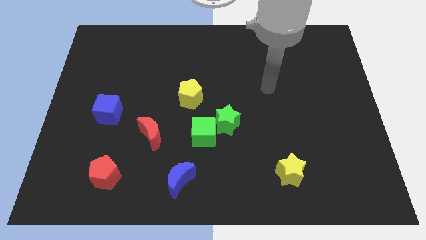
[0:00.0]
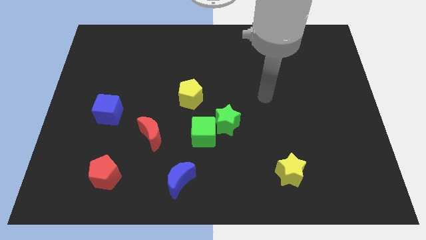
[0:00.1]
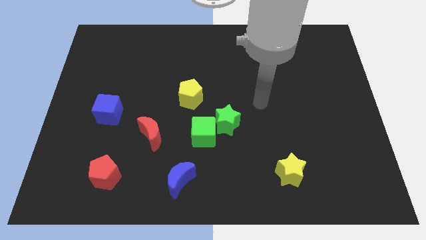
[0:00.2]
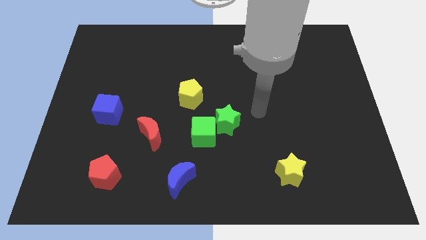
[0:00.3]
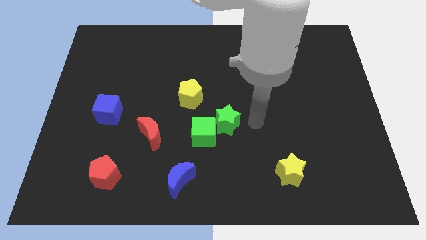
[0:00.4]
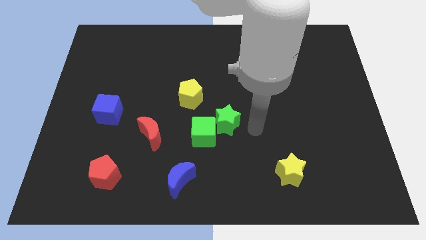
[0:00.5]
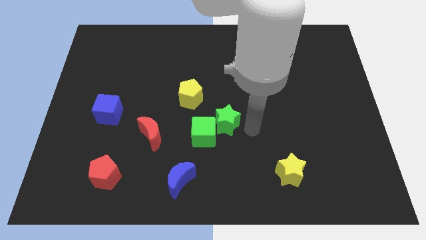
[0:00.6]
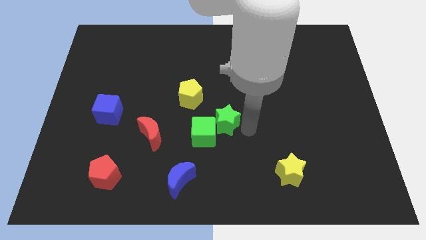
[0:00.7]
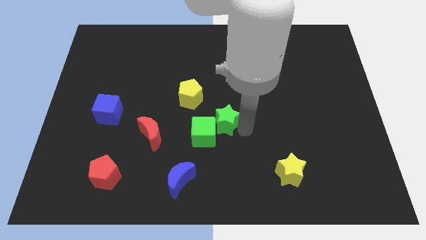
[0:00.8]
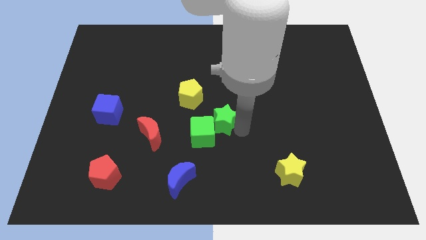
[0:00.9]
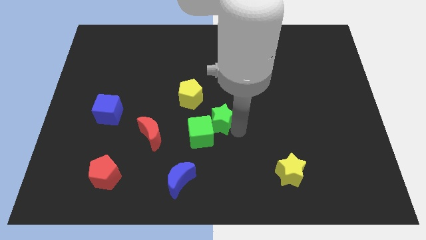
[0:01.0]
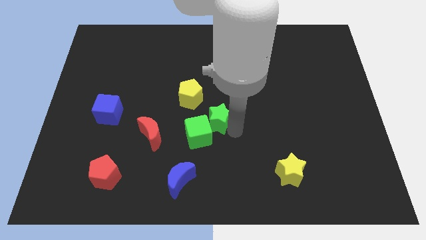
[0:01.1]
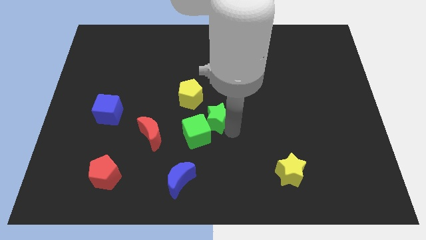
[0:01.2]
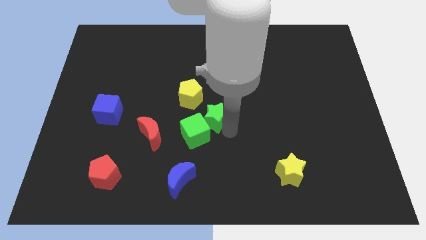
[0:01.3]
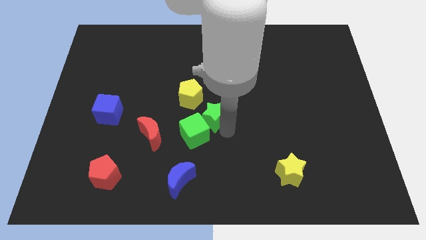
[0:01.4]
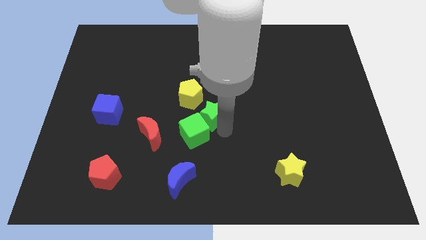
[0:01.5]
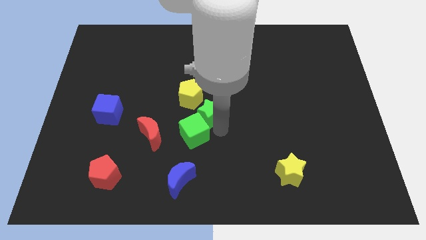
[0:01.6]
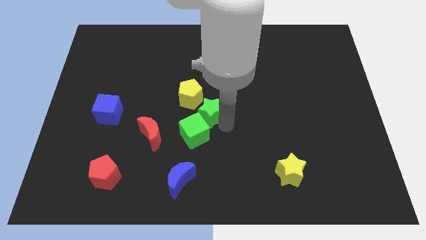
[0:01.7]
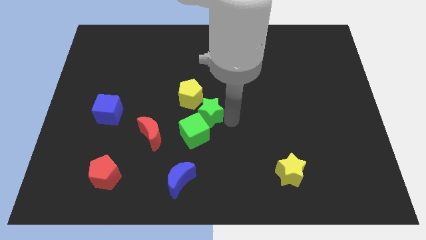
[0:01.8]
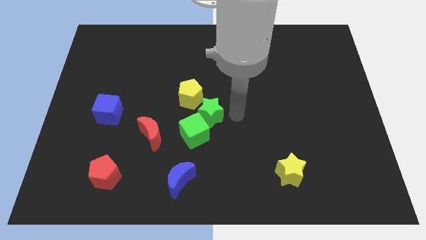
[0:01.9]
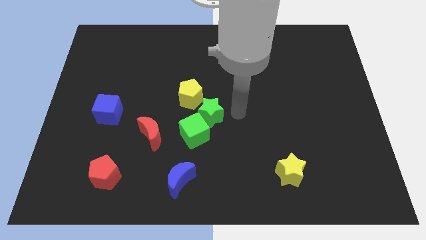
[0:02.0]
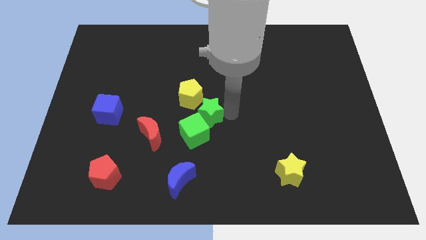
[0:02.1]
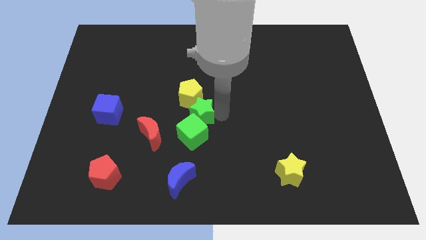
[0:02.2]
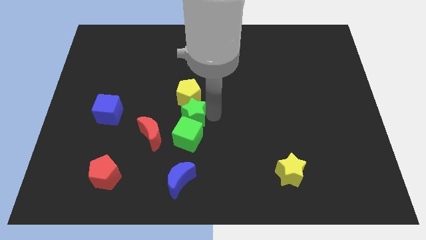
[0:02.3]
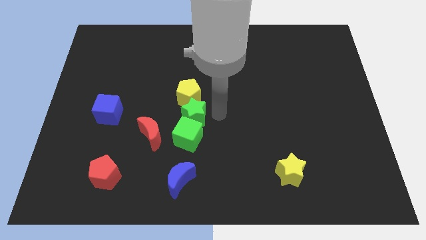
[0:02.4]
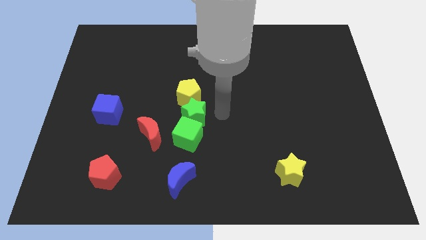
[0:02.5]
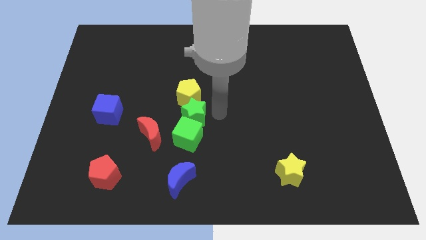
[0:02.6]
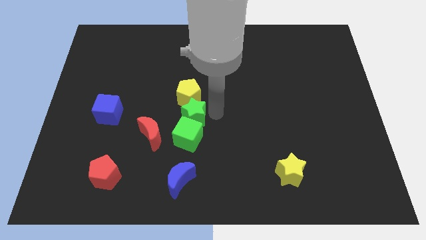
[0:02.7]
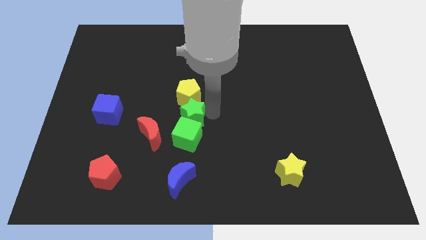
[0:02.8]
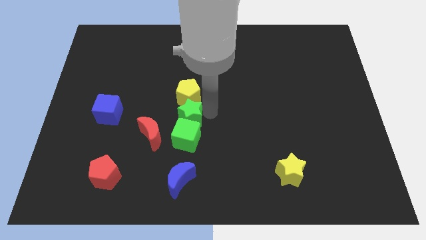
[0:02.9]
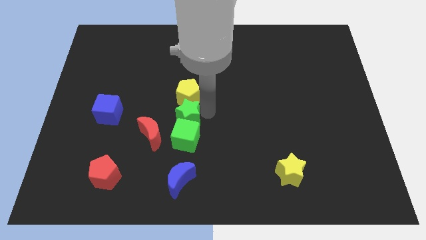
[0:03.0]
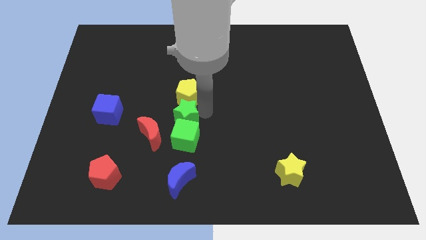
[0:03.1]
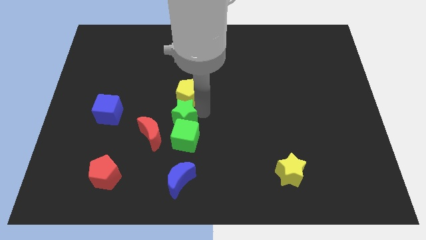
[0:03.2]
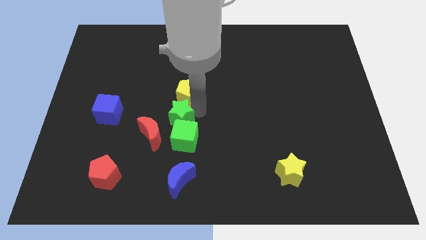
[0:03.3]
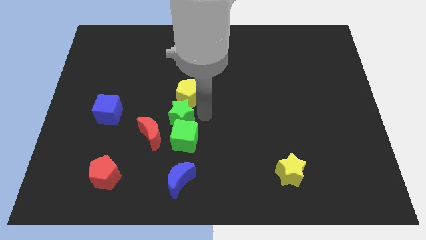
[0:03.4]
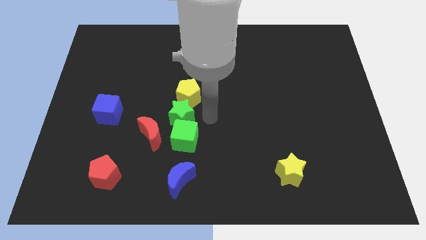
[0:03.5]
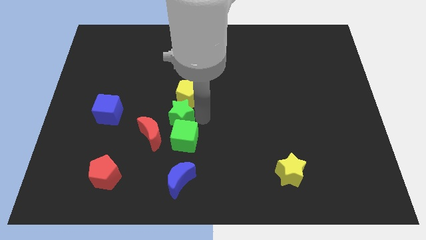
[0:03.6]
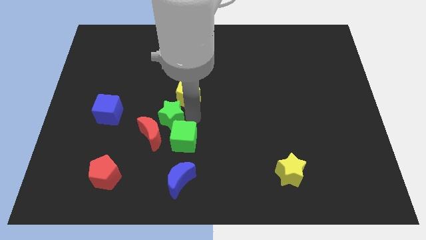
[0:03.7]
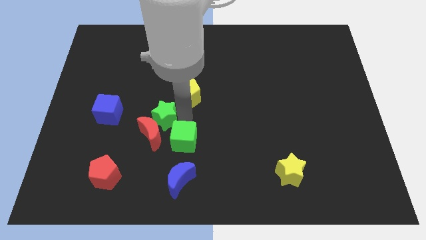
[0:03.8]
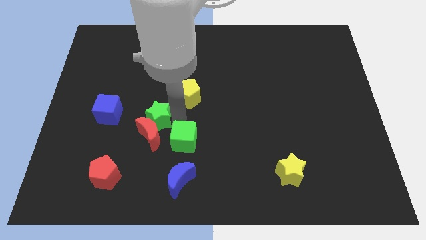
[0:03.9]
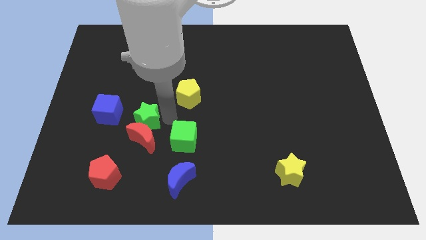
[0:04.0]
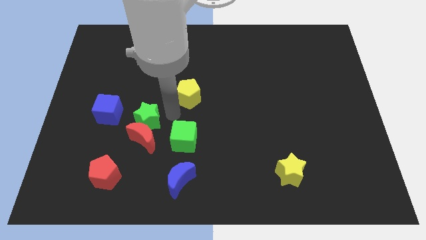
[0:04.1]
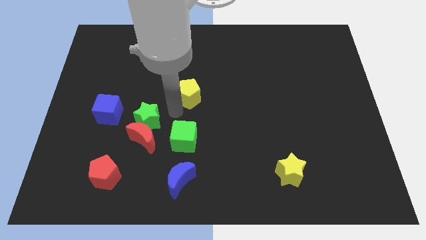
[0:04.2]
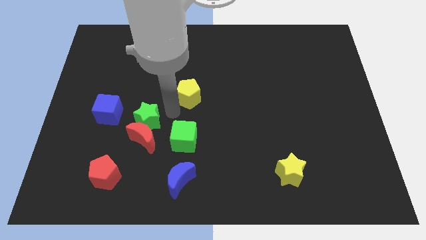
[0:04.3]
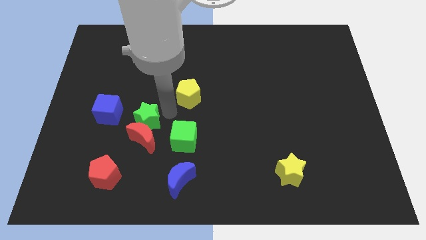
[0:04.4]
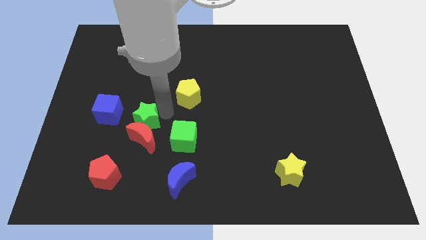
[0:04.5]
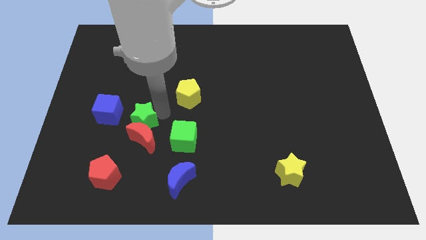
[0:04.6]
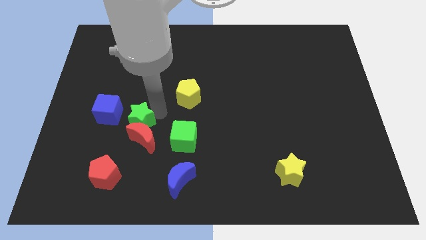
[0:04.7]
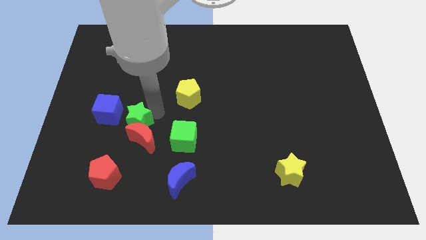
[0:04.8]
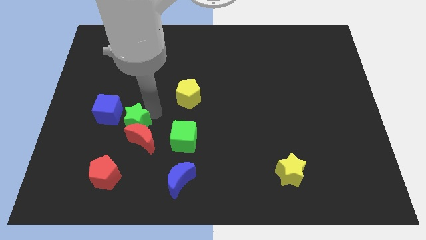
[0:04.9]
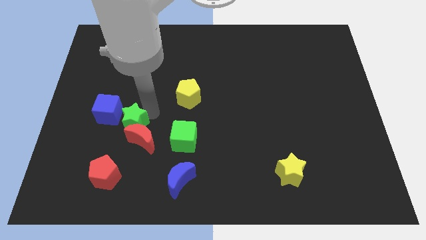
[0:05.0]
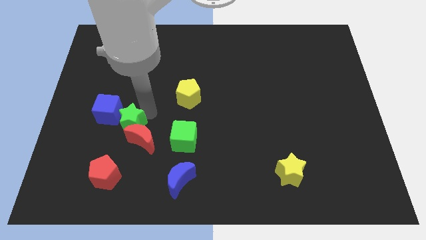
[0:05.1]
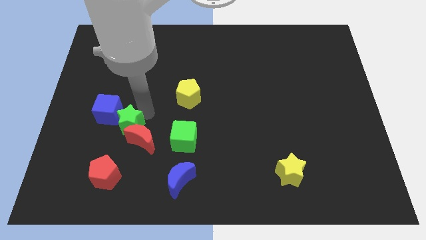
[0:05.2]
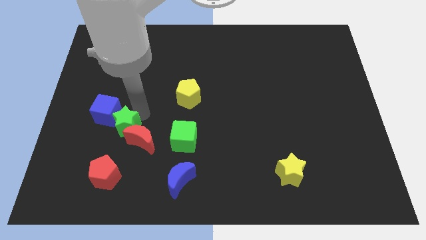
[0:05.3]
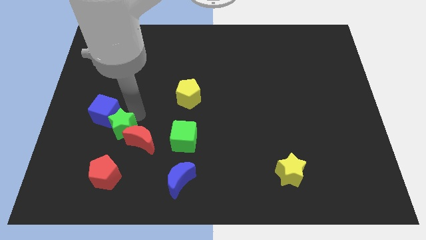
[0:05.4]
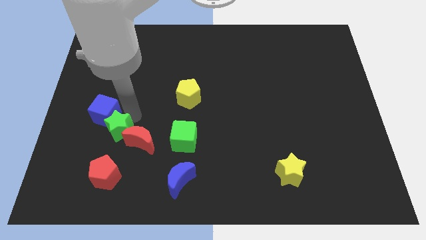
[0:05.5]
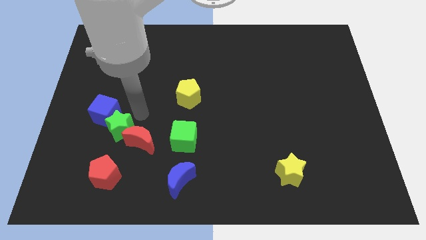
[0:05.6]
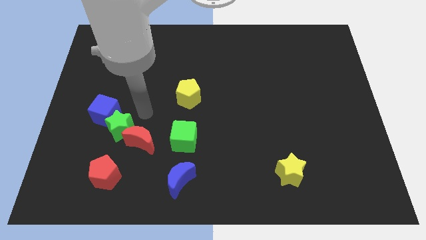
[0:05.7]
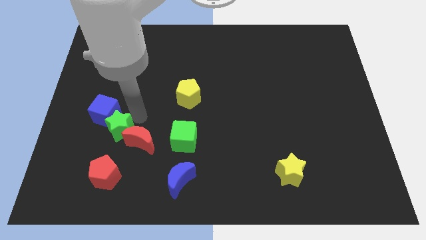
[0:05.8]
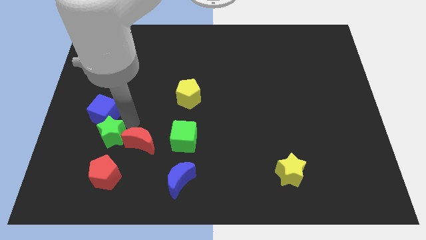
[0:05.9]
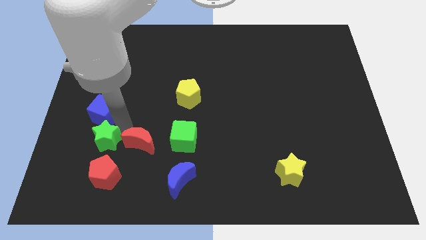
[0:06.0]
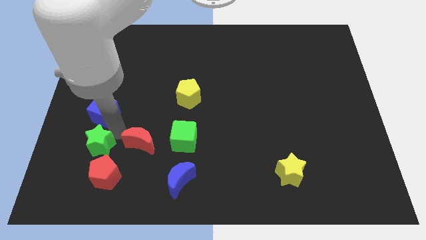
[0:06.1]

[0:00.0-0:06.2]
move the green star to the top left side of the red pentagon

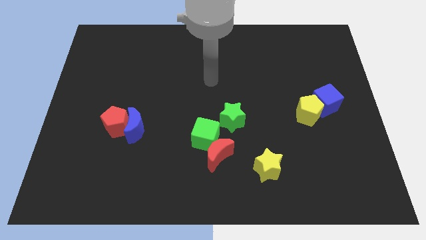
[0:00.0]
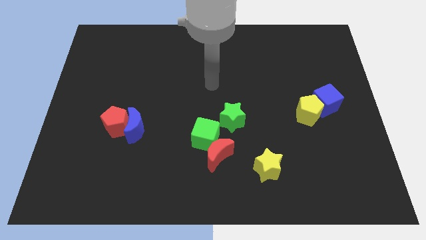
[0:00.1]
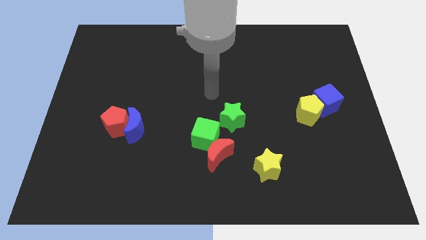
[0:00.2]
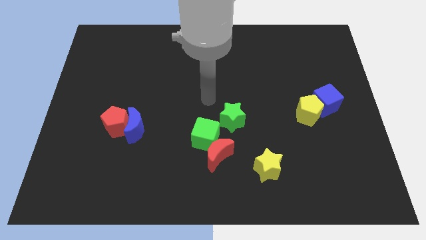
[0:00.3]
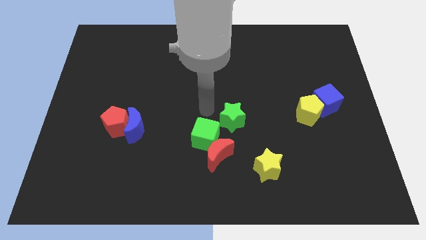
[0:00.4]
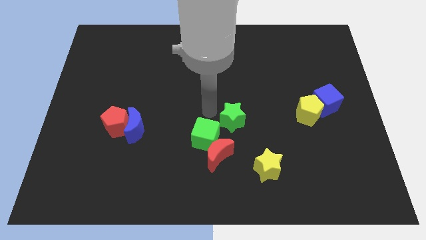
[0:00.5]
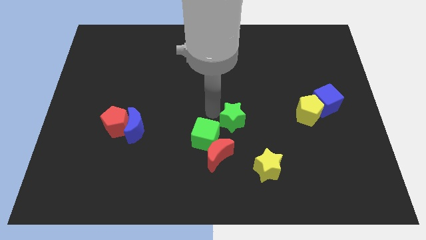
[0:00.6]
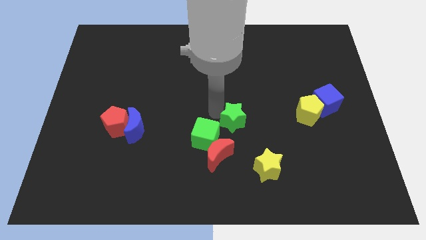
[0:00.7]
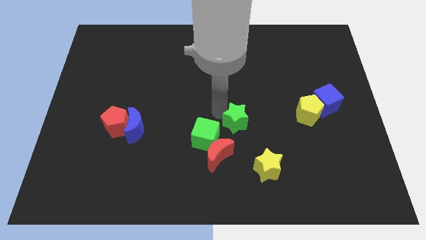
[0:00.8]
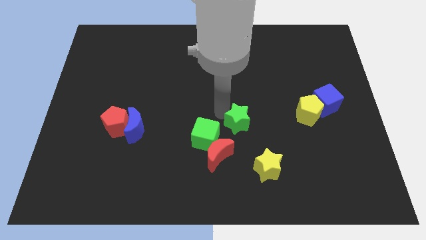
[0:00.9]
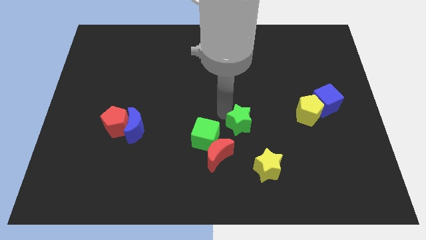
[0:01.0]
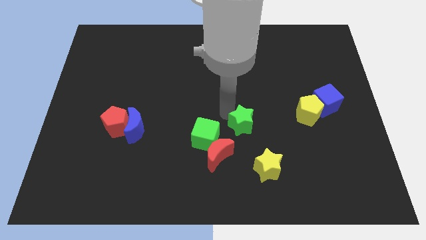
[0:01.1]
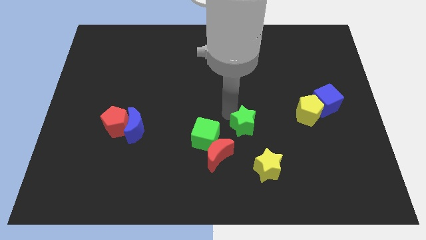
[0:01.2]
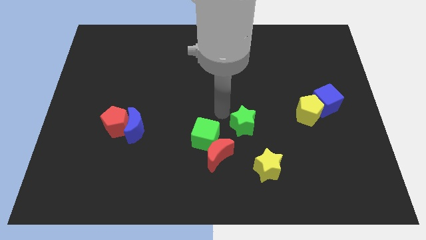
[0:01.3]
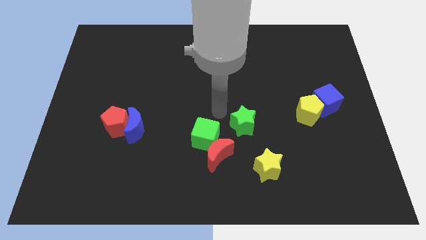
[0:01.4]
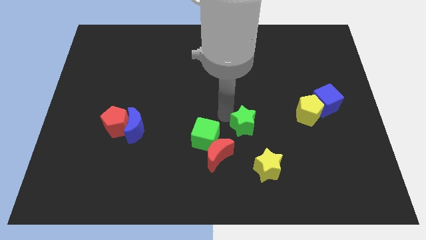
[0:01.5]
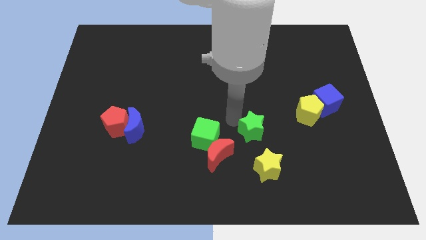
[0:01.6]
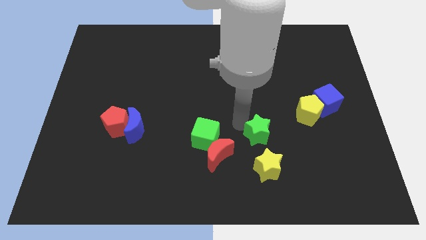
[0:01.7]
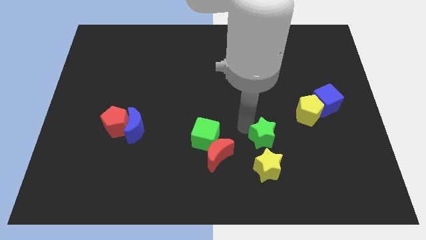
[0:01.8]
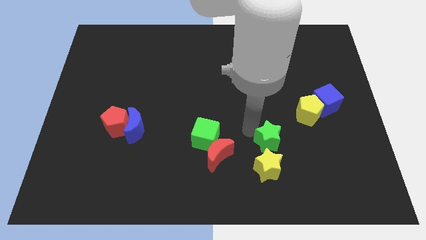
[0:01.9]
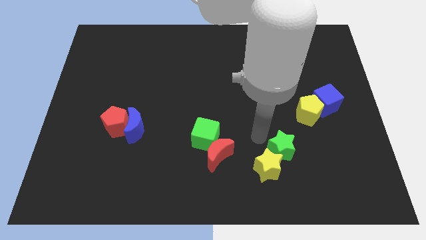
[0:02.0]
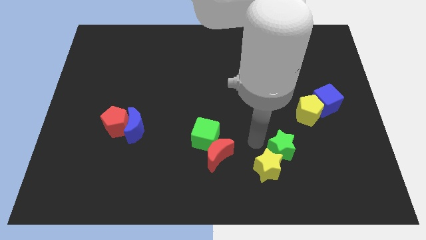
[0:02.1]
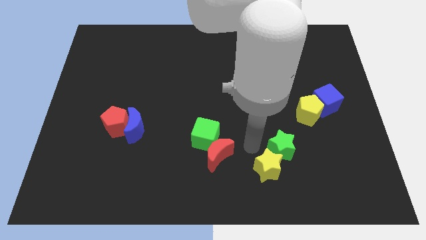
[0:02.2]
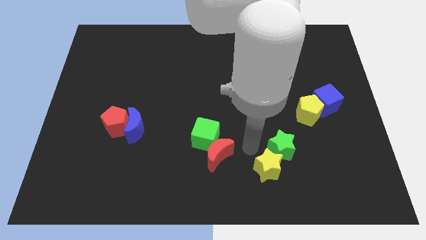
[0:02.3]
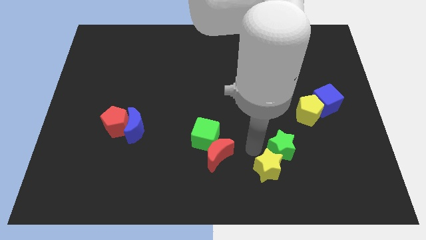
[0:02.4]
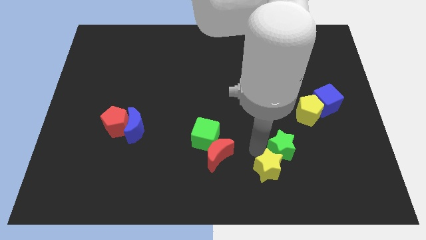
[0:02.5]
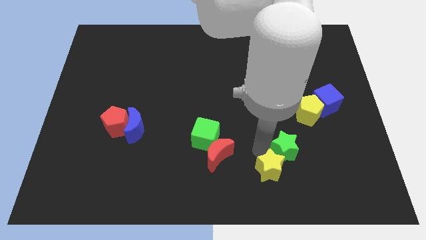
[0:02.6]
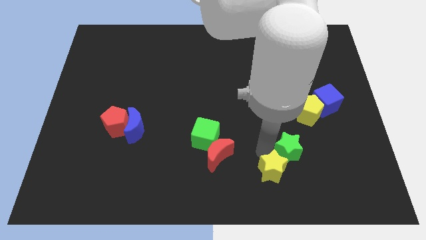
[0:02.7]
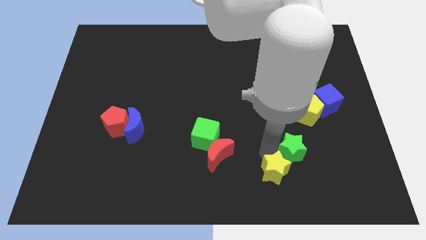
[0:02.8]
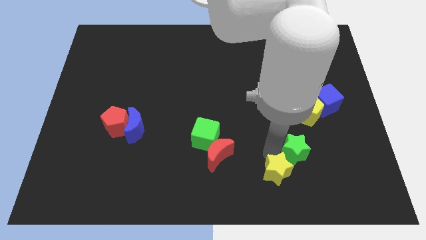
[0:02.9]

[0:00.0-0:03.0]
push the green star below the yellow pentagon
